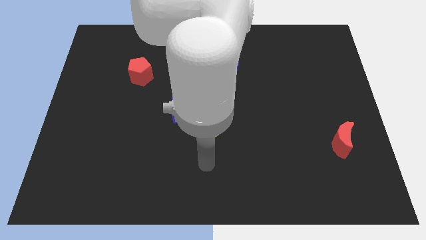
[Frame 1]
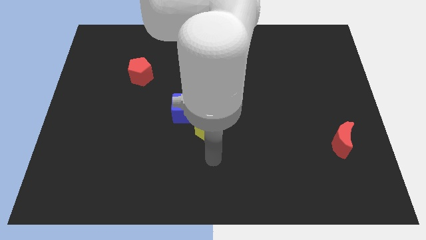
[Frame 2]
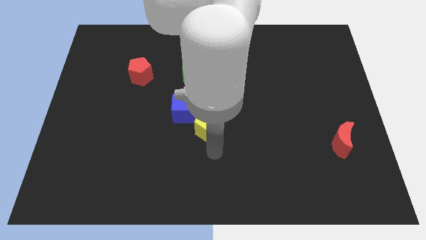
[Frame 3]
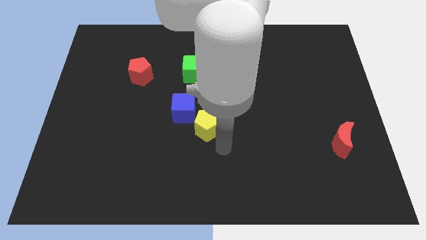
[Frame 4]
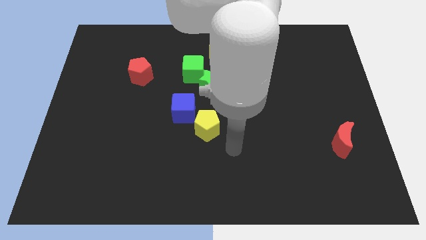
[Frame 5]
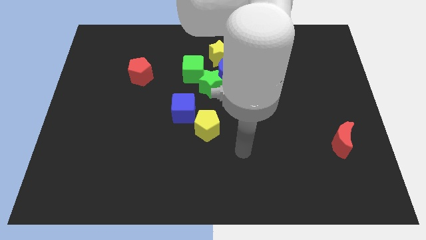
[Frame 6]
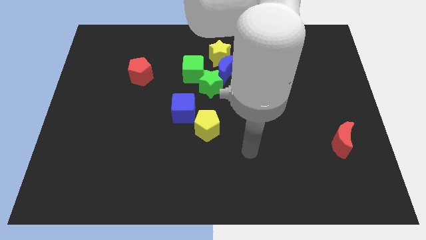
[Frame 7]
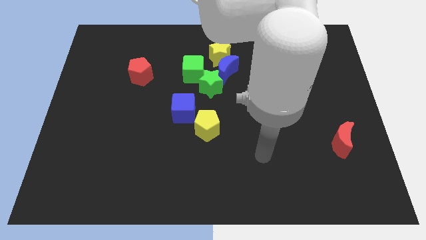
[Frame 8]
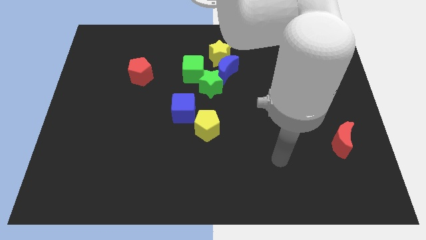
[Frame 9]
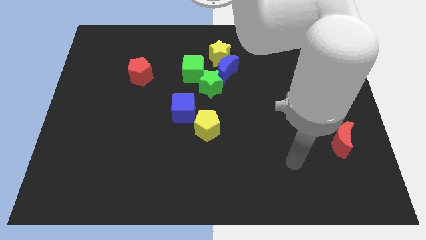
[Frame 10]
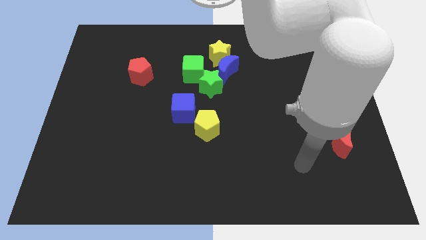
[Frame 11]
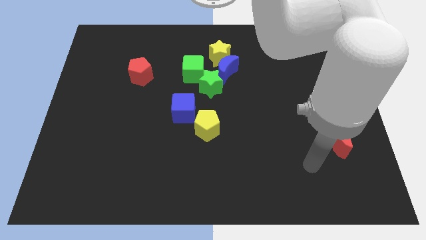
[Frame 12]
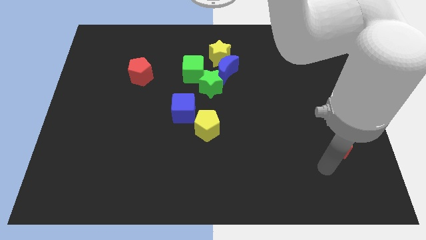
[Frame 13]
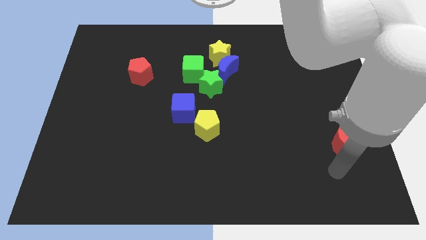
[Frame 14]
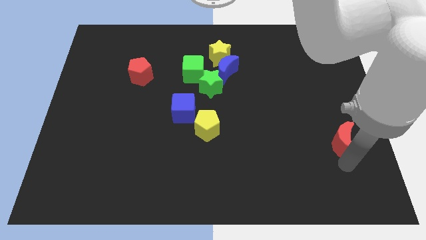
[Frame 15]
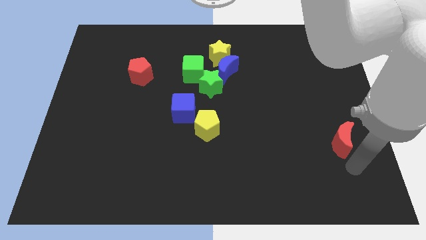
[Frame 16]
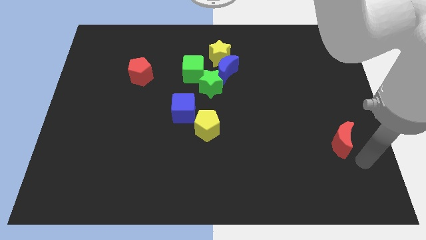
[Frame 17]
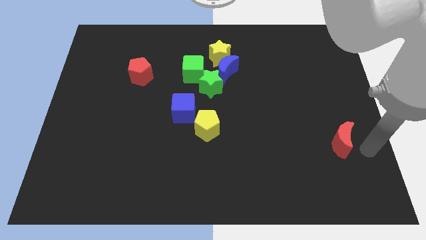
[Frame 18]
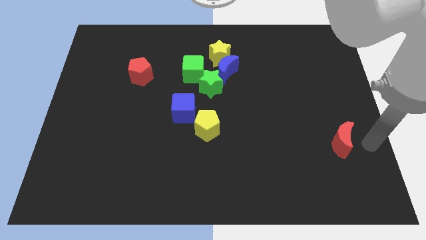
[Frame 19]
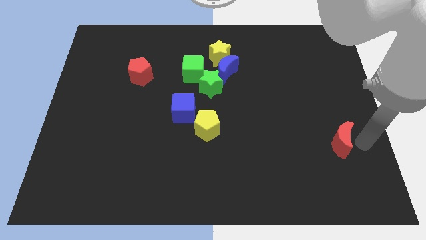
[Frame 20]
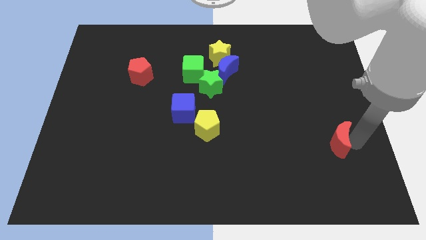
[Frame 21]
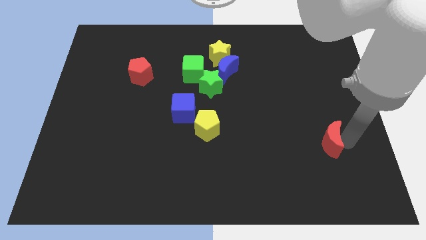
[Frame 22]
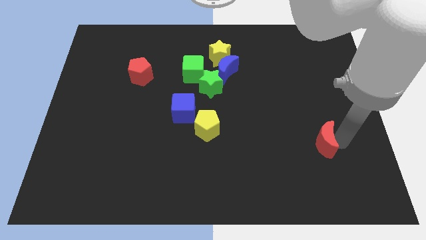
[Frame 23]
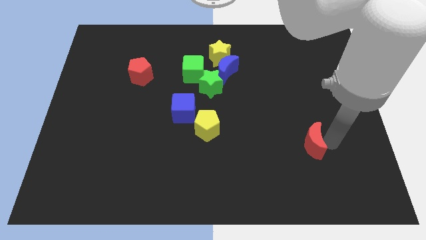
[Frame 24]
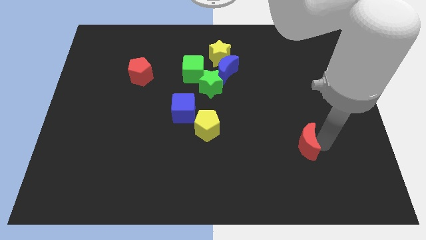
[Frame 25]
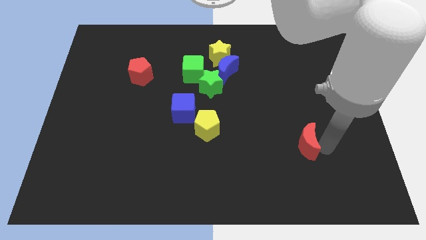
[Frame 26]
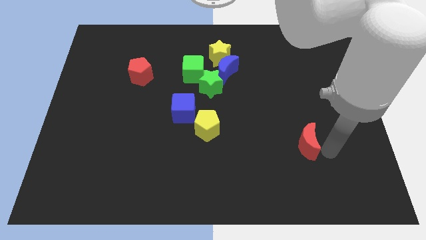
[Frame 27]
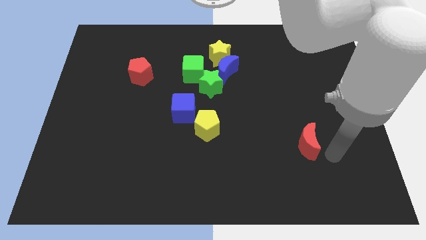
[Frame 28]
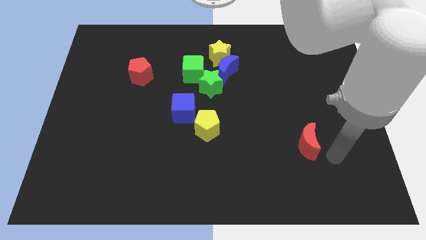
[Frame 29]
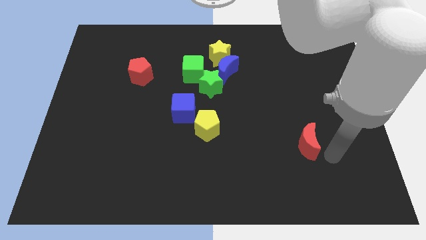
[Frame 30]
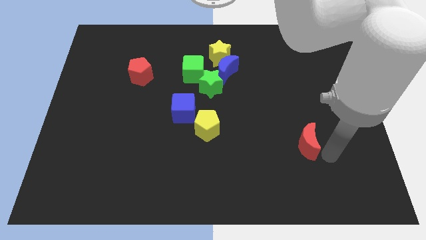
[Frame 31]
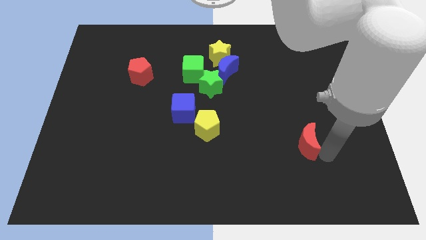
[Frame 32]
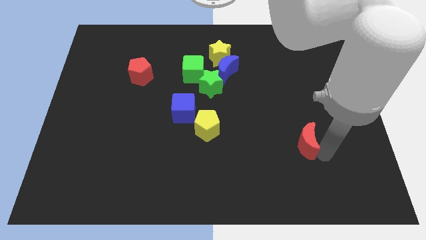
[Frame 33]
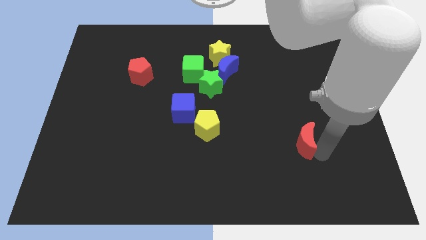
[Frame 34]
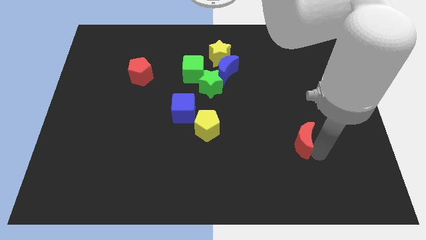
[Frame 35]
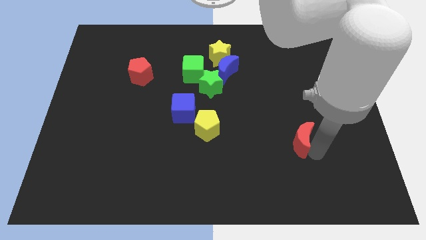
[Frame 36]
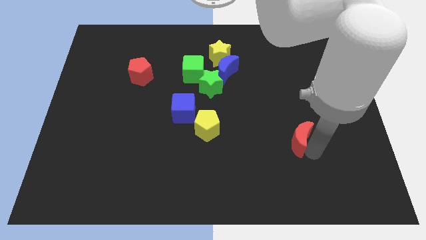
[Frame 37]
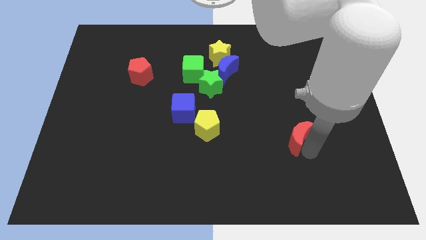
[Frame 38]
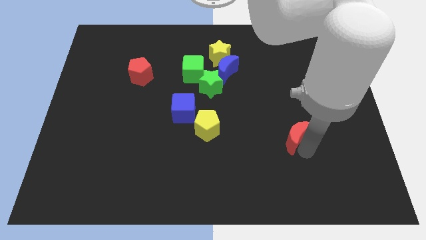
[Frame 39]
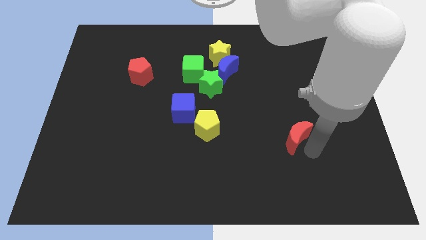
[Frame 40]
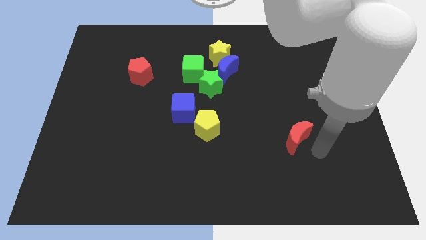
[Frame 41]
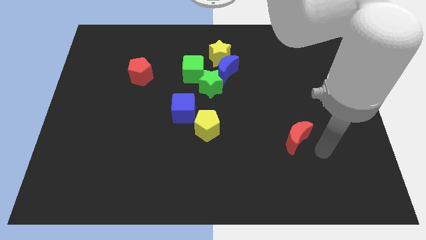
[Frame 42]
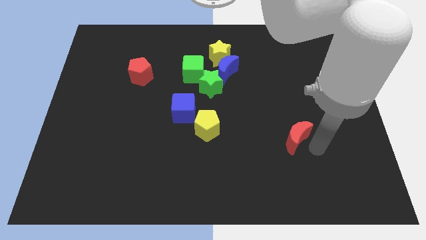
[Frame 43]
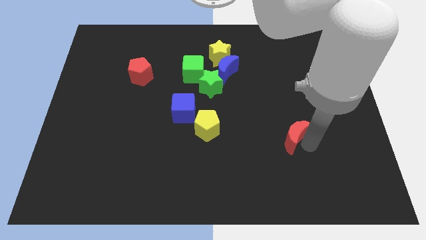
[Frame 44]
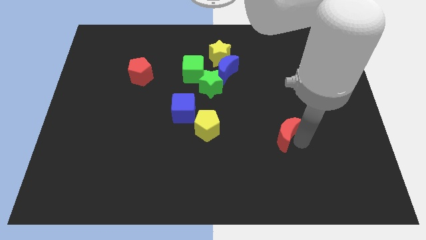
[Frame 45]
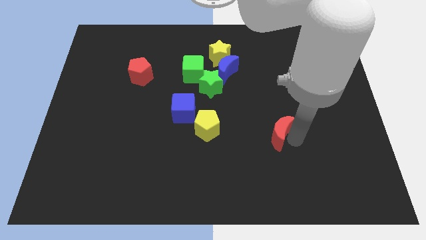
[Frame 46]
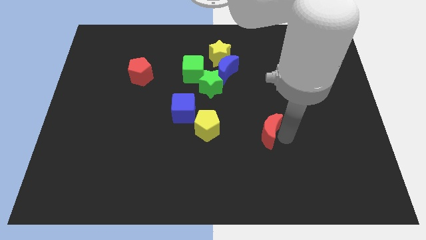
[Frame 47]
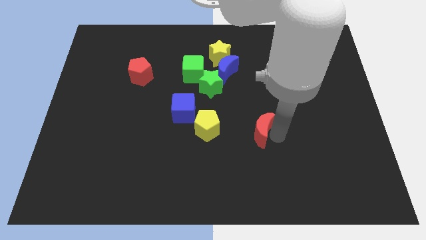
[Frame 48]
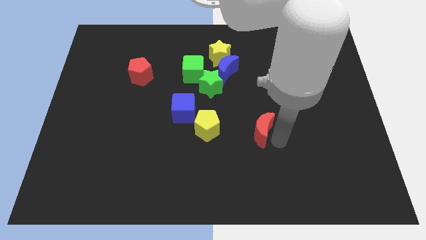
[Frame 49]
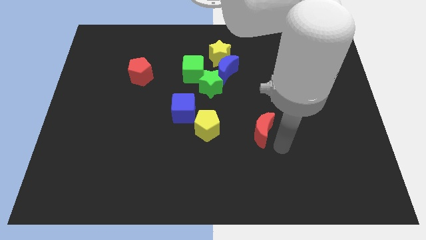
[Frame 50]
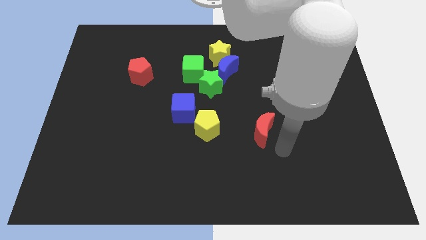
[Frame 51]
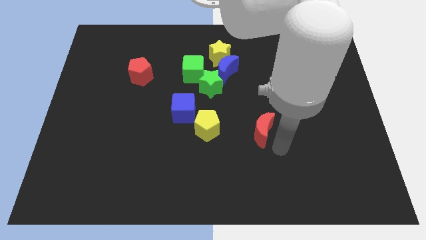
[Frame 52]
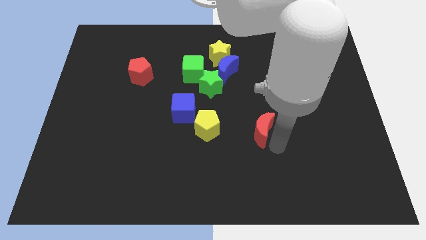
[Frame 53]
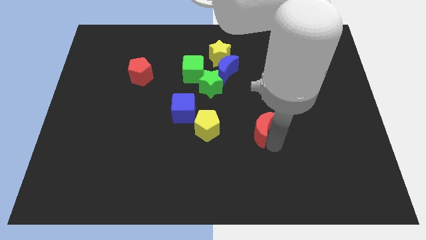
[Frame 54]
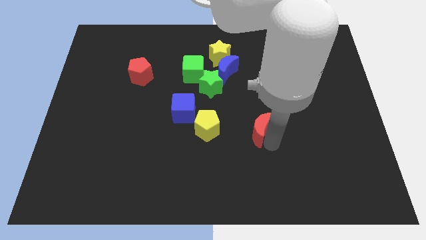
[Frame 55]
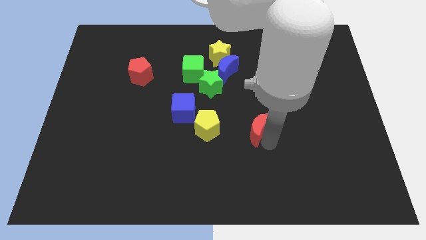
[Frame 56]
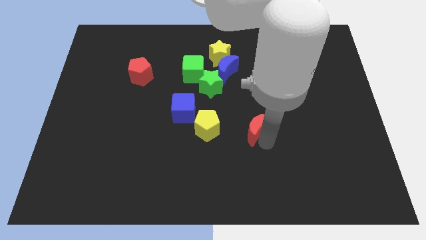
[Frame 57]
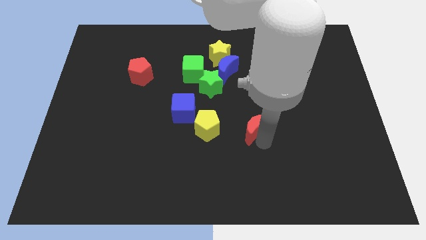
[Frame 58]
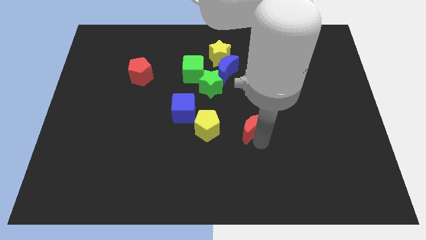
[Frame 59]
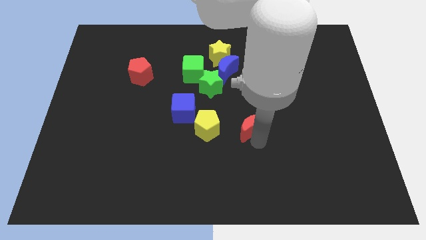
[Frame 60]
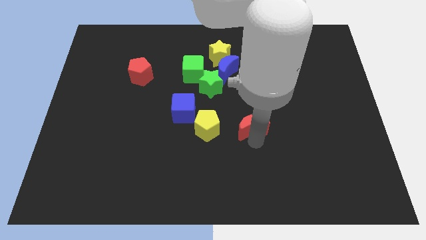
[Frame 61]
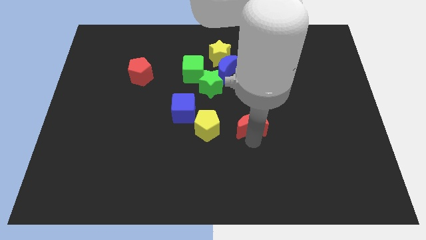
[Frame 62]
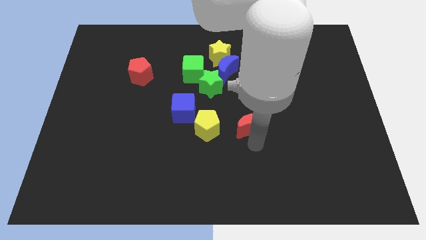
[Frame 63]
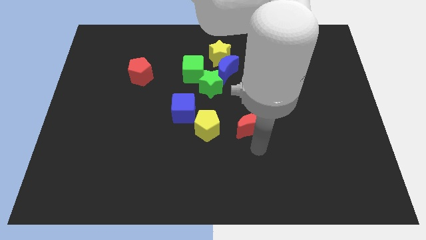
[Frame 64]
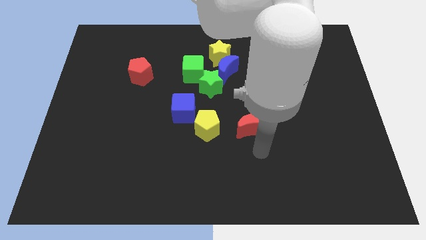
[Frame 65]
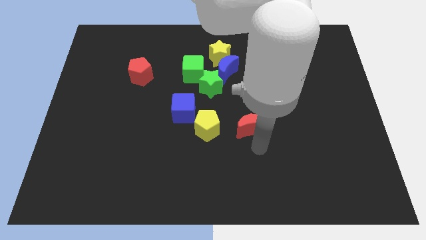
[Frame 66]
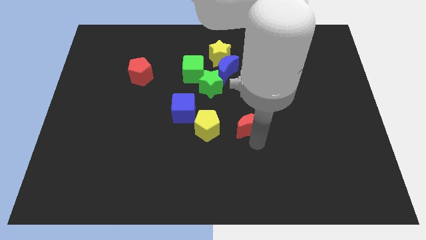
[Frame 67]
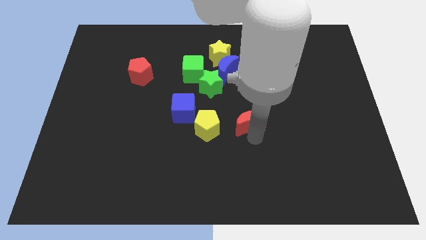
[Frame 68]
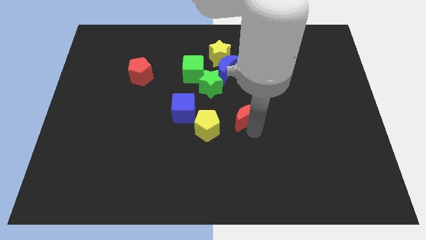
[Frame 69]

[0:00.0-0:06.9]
slide the red moon right of the blue cube
